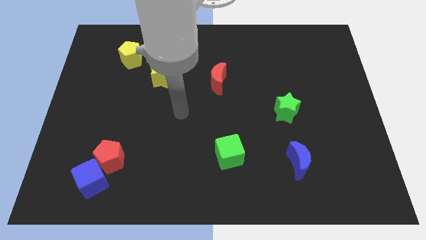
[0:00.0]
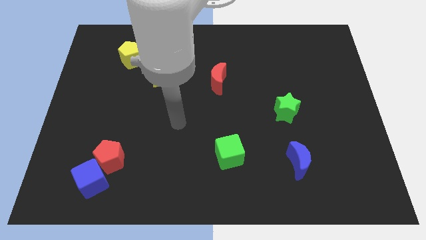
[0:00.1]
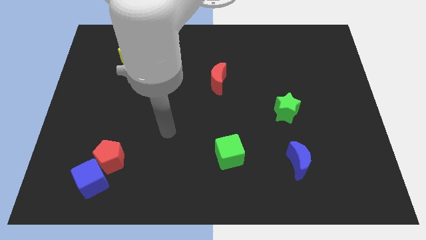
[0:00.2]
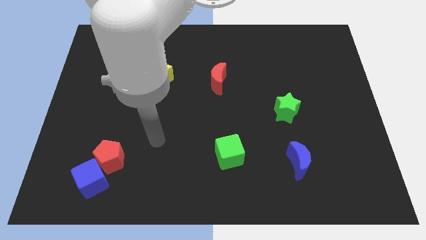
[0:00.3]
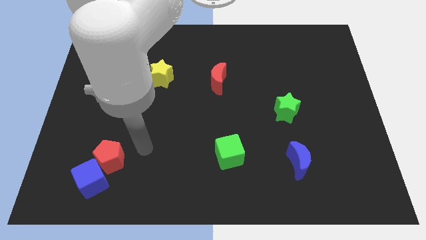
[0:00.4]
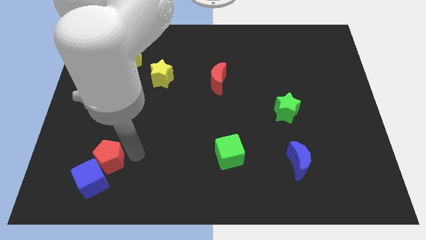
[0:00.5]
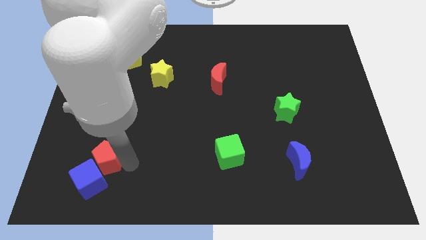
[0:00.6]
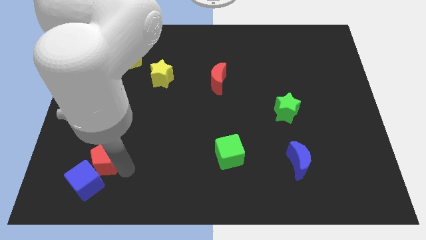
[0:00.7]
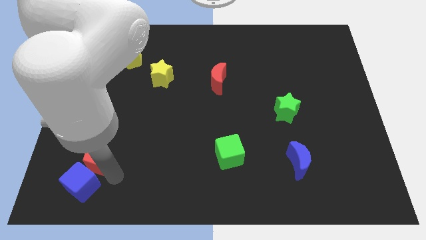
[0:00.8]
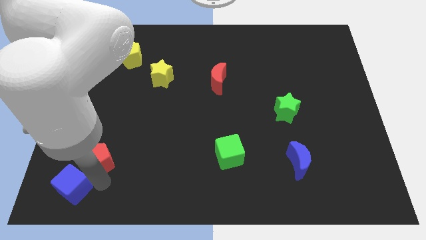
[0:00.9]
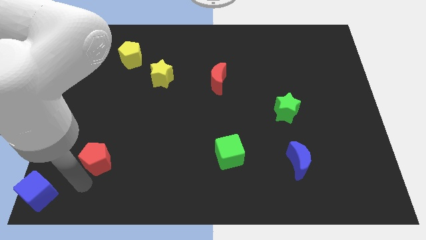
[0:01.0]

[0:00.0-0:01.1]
pull the red pentagon apart from the blue cube

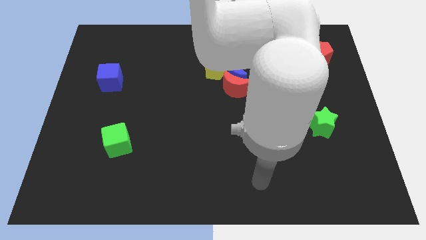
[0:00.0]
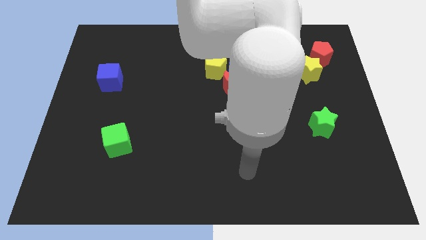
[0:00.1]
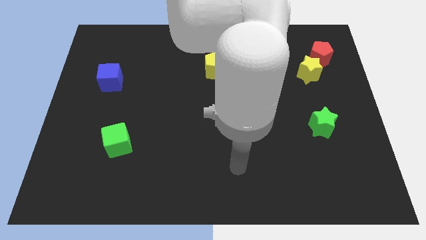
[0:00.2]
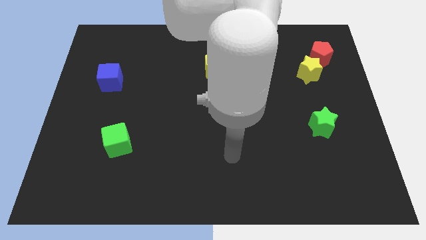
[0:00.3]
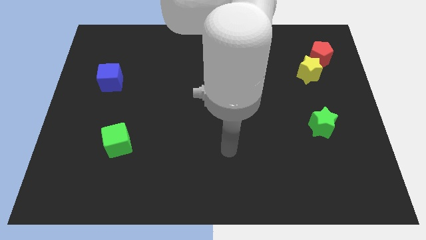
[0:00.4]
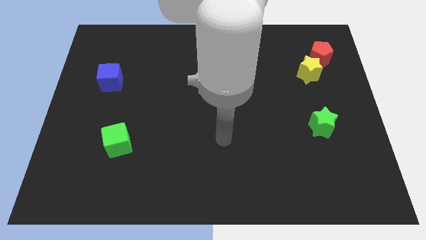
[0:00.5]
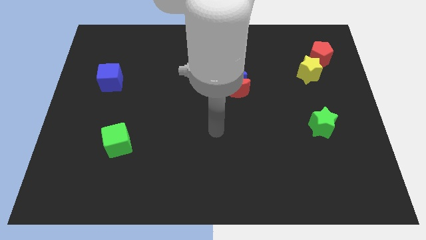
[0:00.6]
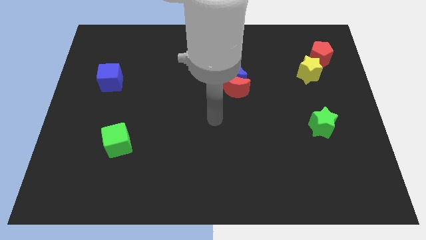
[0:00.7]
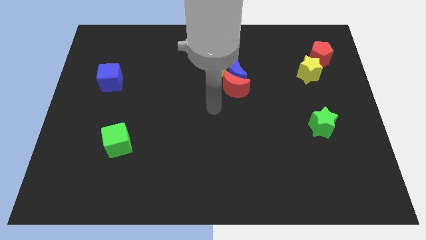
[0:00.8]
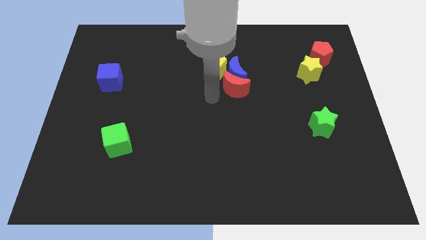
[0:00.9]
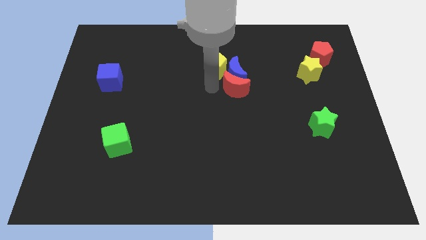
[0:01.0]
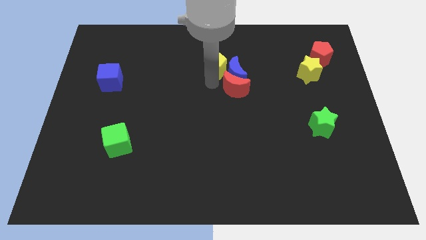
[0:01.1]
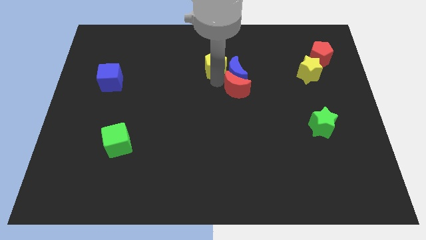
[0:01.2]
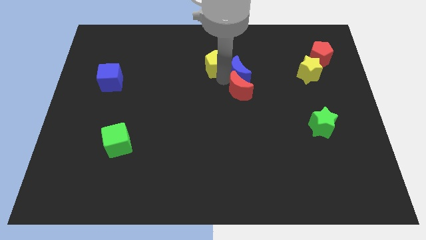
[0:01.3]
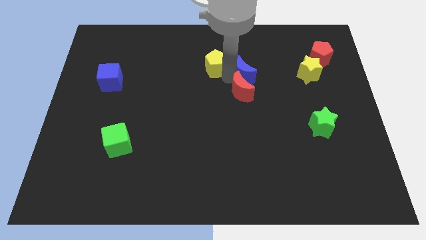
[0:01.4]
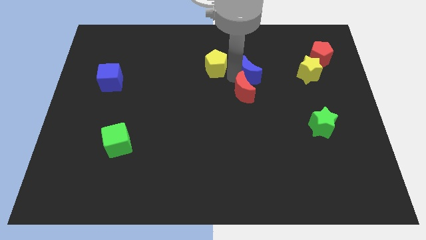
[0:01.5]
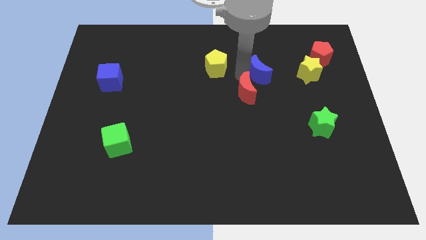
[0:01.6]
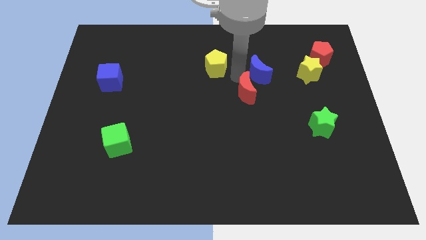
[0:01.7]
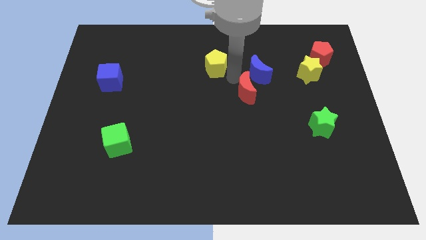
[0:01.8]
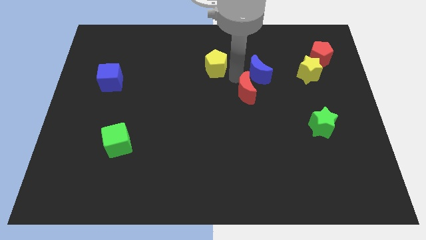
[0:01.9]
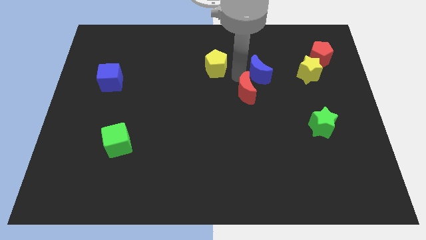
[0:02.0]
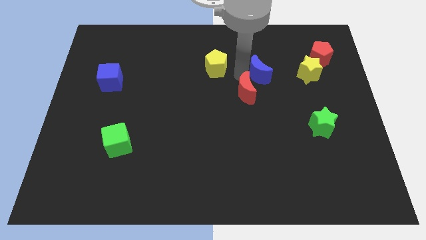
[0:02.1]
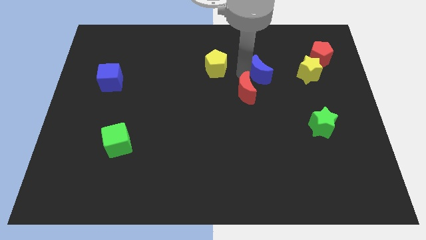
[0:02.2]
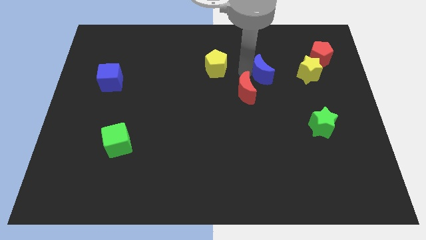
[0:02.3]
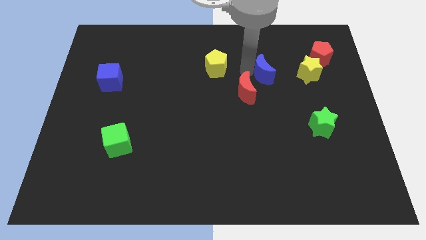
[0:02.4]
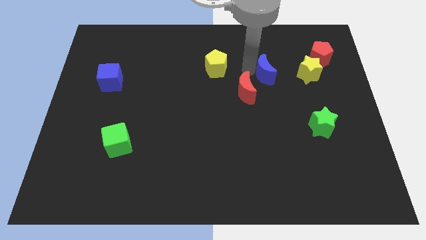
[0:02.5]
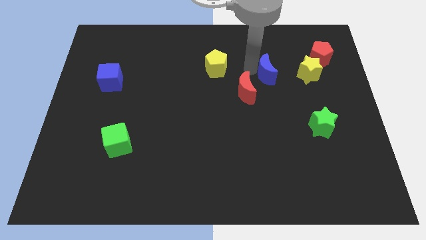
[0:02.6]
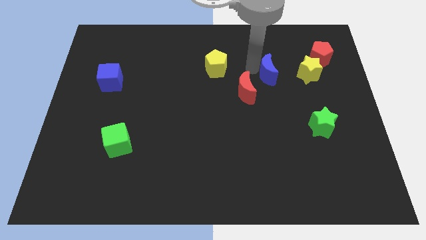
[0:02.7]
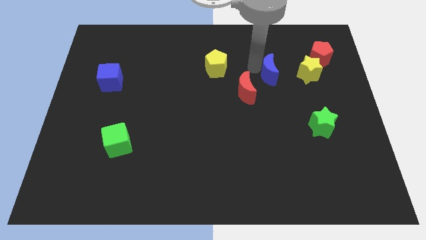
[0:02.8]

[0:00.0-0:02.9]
move the blue moon away from the red moon and yellow pentagon

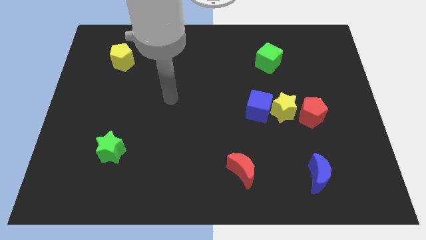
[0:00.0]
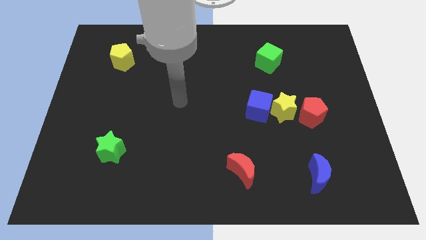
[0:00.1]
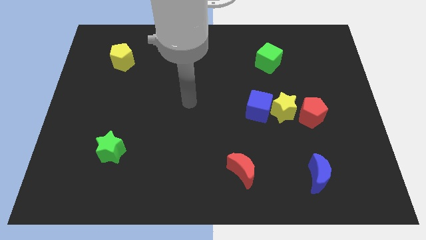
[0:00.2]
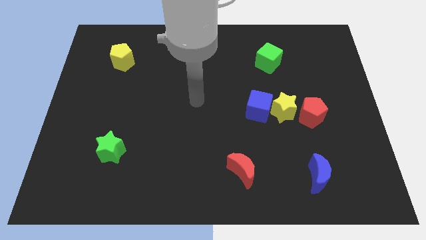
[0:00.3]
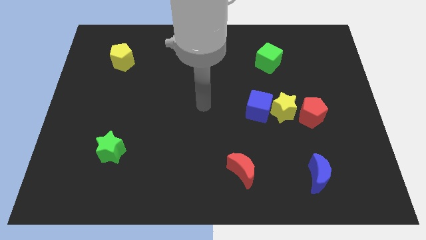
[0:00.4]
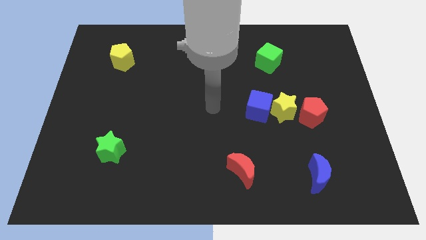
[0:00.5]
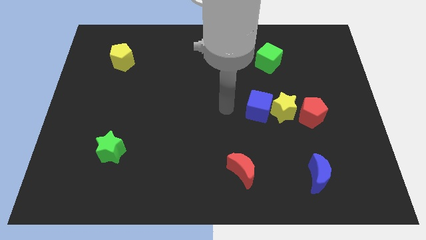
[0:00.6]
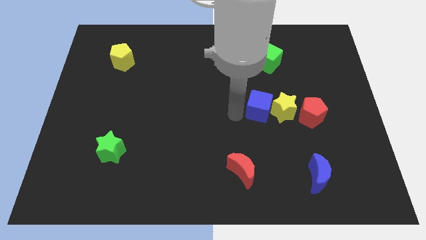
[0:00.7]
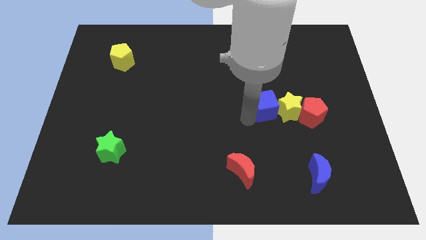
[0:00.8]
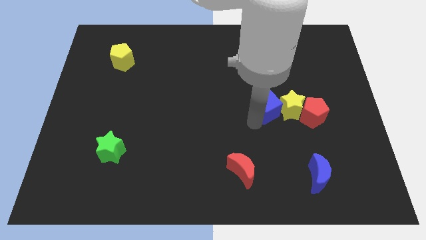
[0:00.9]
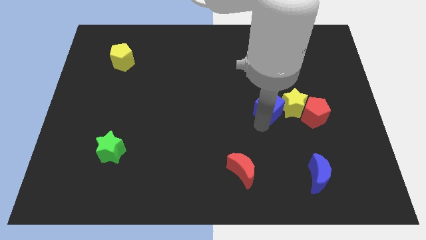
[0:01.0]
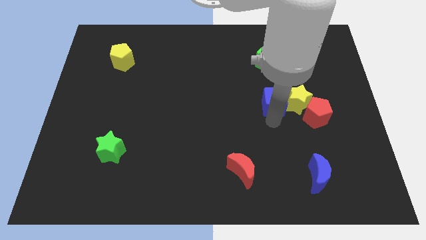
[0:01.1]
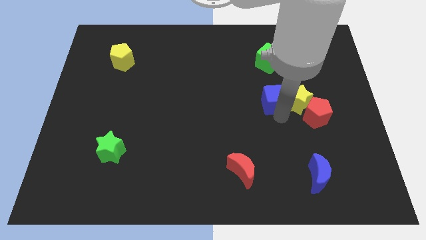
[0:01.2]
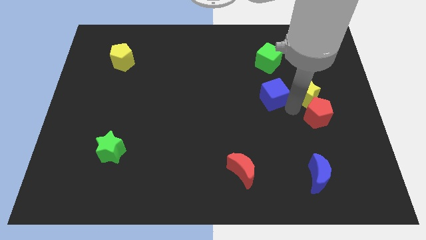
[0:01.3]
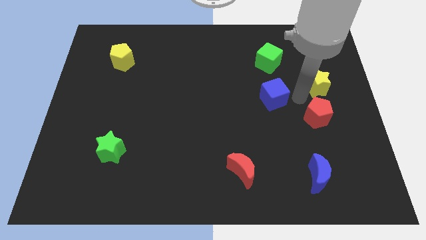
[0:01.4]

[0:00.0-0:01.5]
separate the blue cube from the yellow star

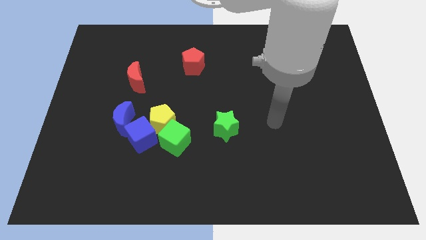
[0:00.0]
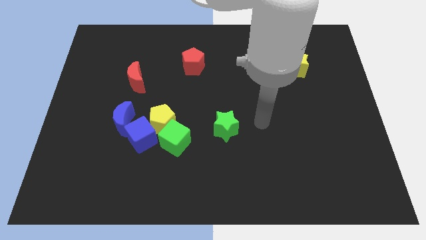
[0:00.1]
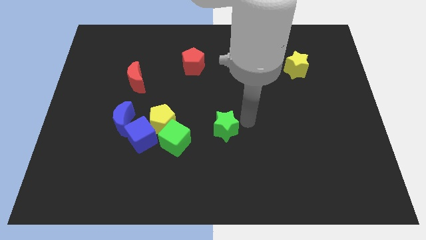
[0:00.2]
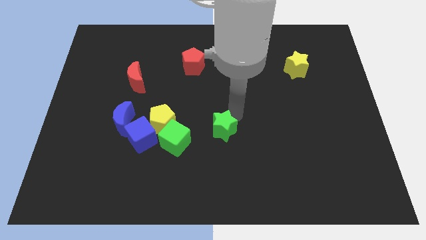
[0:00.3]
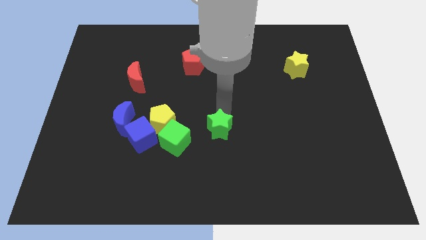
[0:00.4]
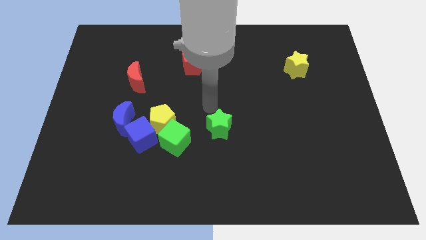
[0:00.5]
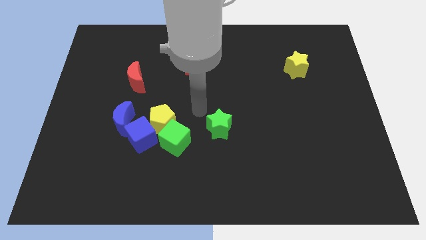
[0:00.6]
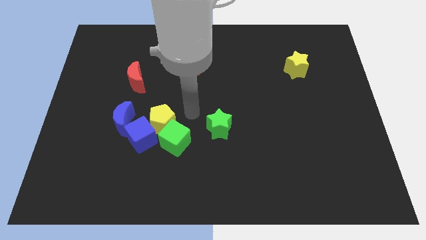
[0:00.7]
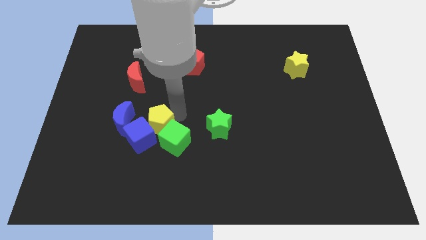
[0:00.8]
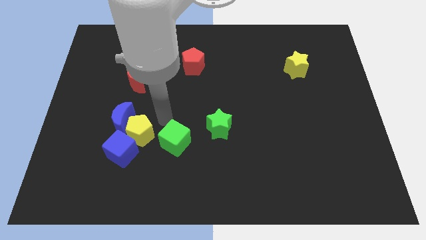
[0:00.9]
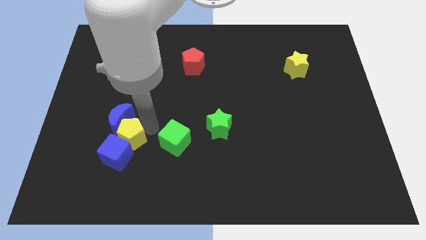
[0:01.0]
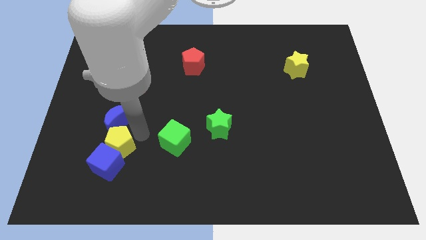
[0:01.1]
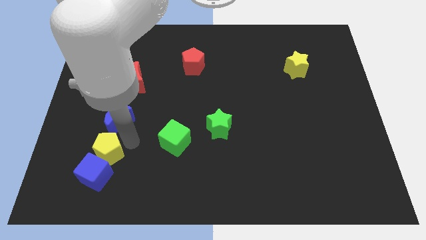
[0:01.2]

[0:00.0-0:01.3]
pull the blue cube apart from the yellow pentagon, blue moon, and green cube

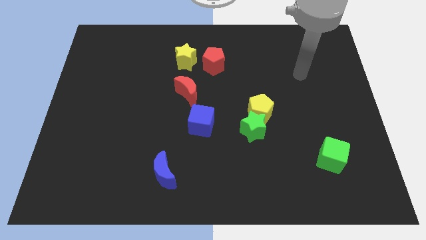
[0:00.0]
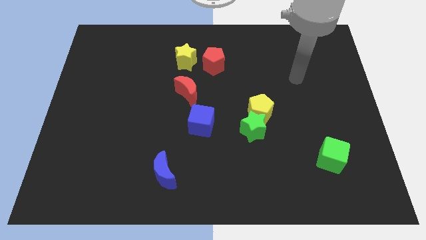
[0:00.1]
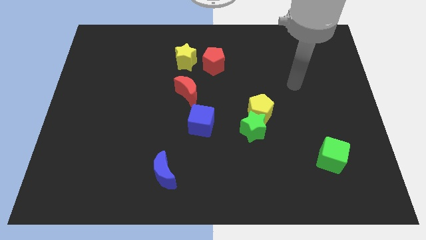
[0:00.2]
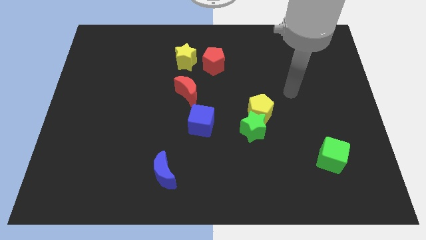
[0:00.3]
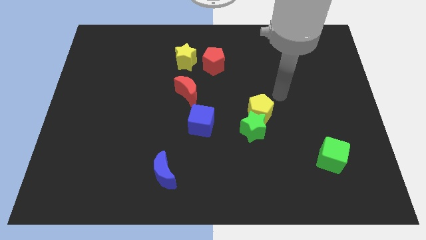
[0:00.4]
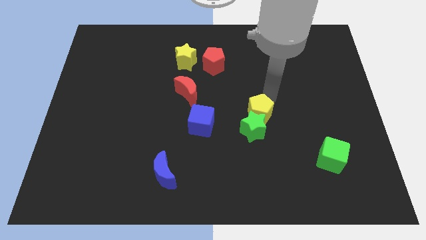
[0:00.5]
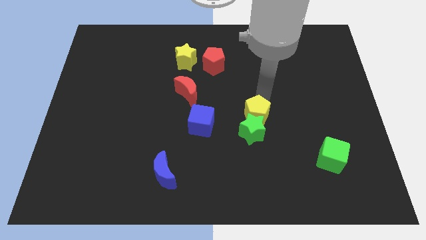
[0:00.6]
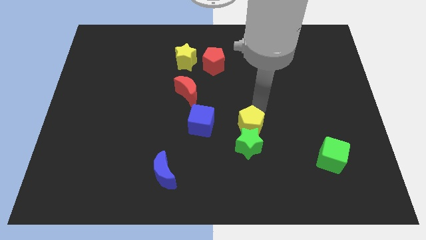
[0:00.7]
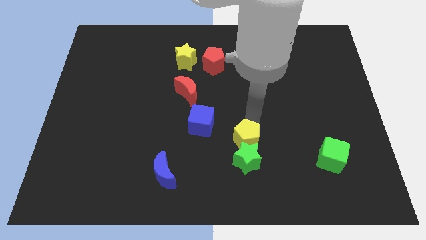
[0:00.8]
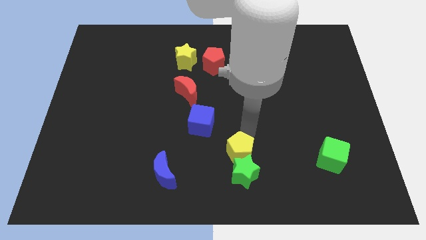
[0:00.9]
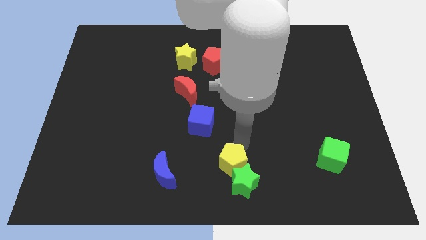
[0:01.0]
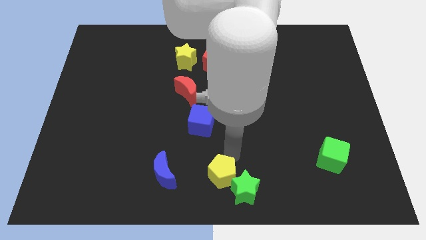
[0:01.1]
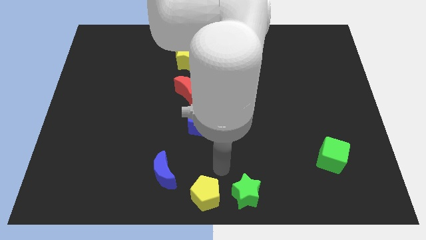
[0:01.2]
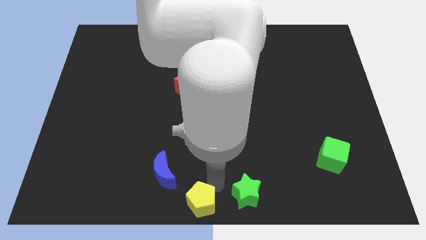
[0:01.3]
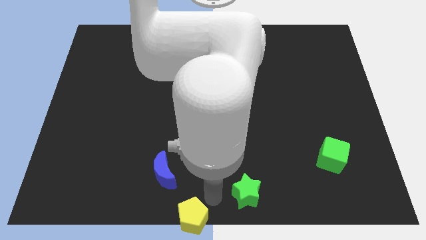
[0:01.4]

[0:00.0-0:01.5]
pull the green star apart from the yellow pentagon

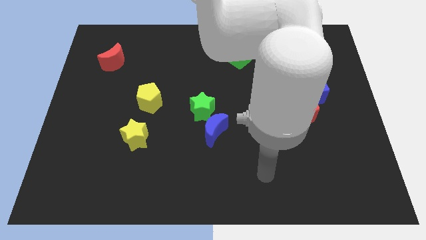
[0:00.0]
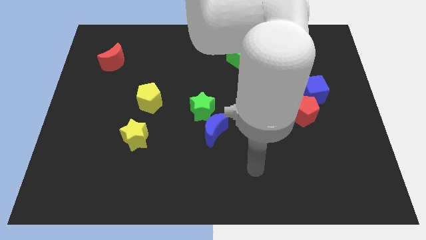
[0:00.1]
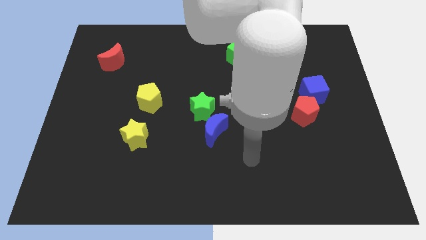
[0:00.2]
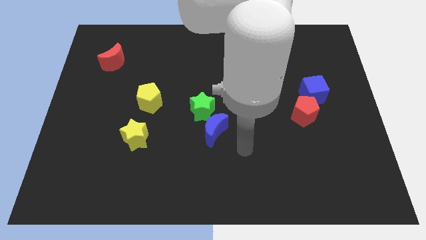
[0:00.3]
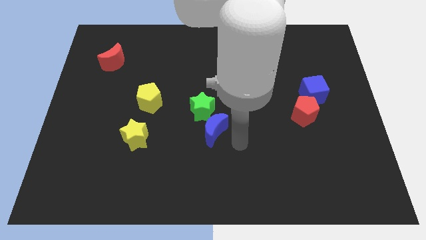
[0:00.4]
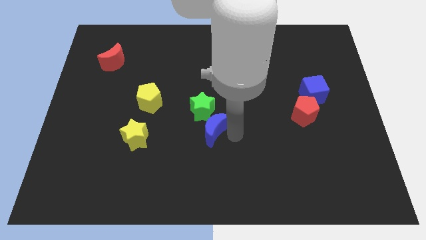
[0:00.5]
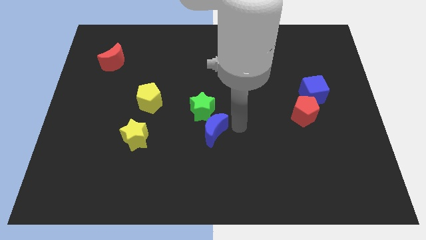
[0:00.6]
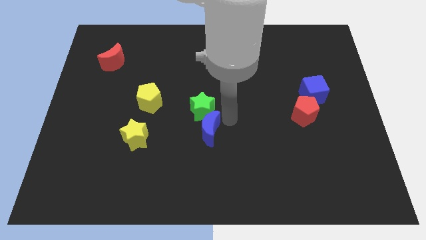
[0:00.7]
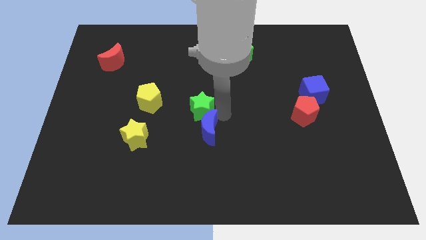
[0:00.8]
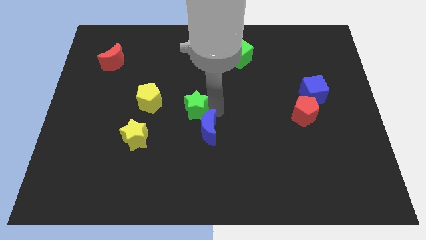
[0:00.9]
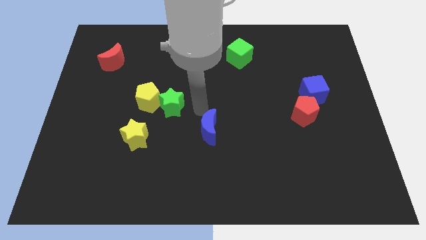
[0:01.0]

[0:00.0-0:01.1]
separate the blue moon from the green star
